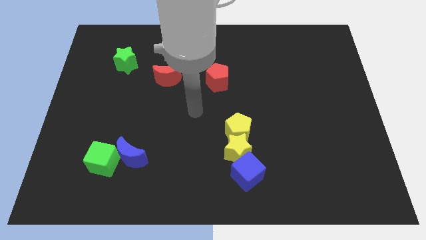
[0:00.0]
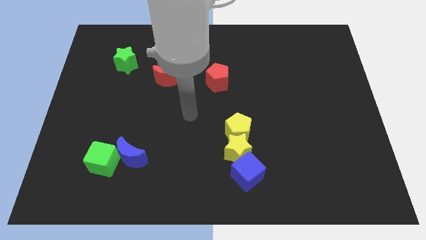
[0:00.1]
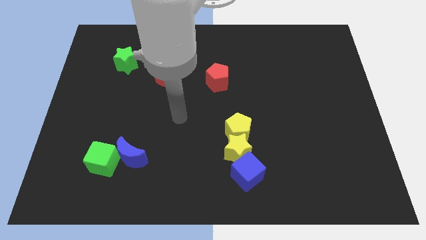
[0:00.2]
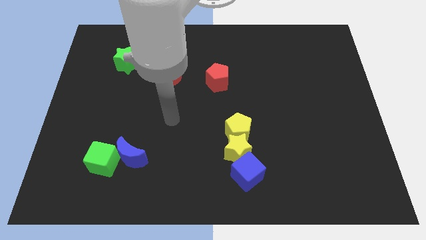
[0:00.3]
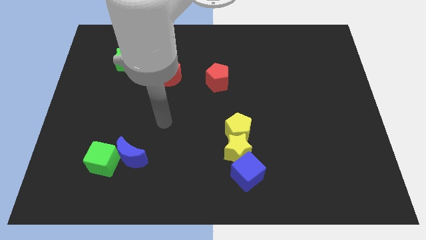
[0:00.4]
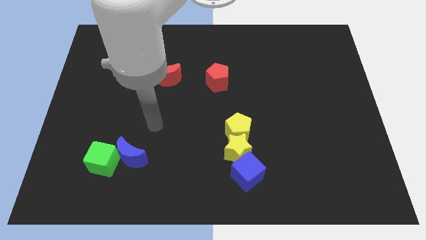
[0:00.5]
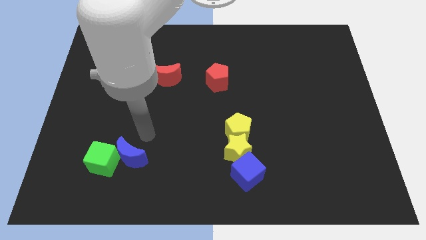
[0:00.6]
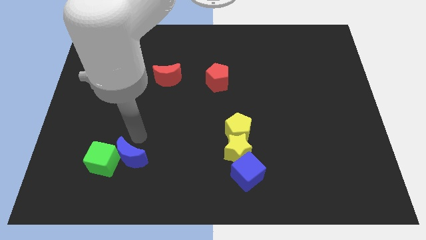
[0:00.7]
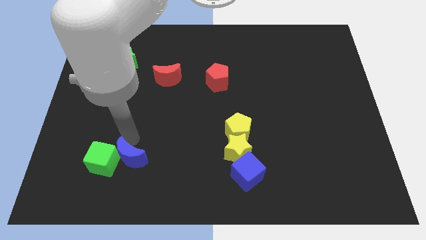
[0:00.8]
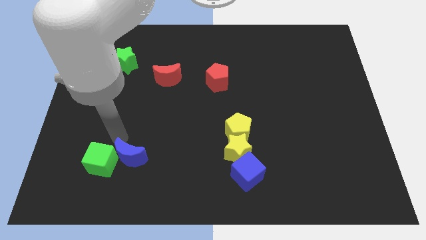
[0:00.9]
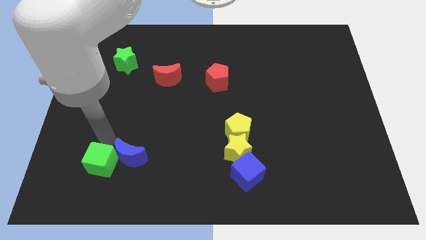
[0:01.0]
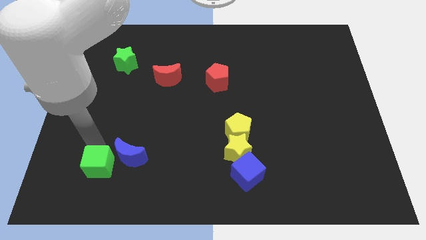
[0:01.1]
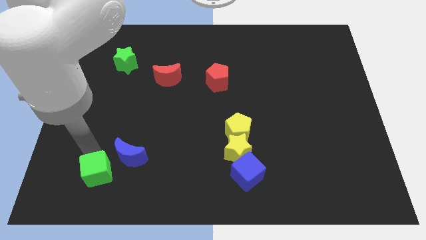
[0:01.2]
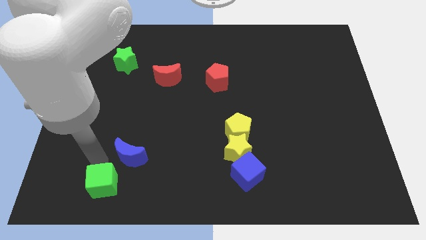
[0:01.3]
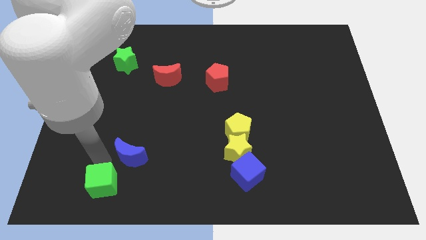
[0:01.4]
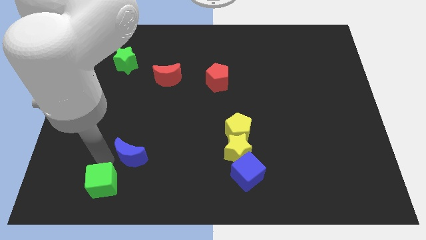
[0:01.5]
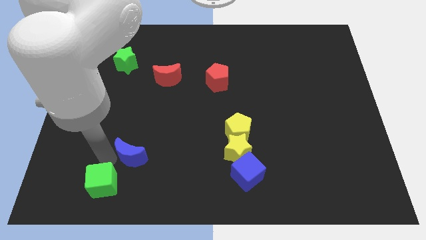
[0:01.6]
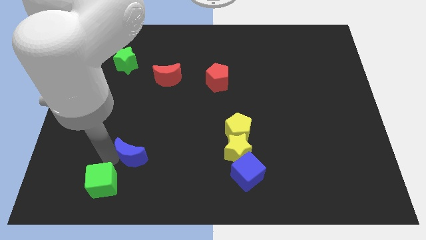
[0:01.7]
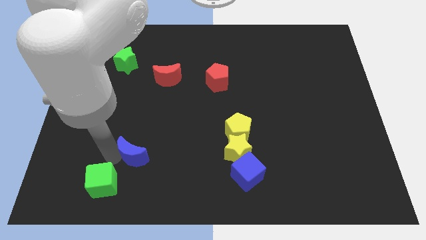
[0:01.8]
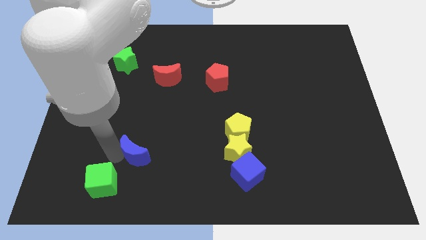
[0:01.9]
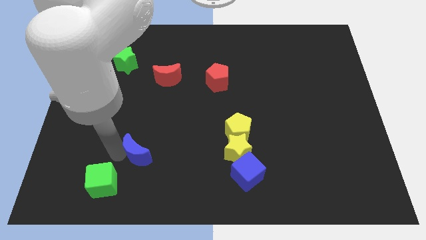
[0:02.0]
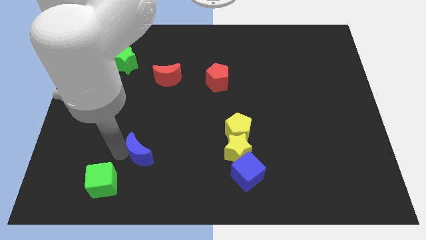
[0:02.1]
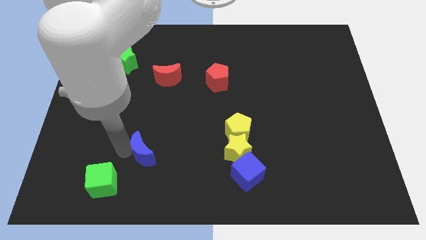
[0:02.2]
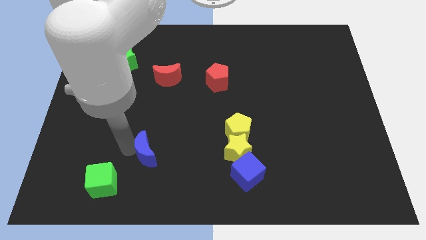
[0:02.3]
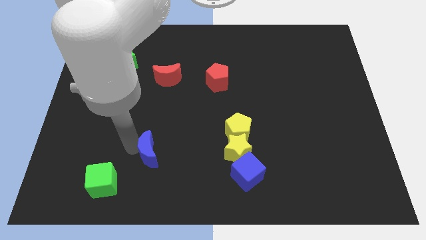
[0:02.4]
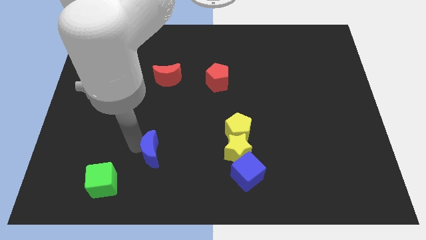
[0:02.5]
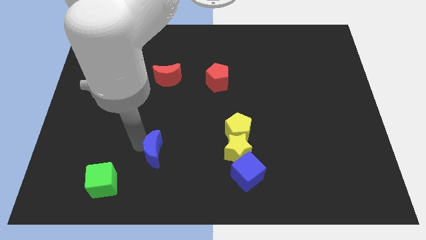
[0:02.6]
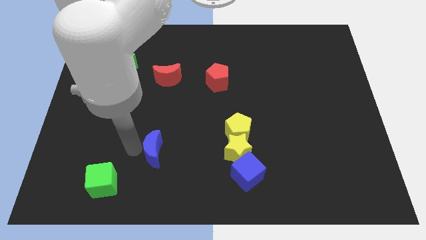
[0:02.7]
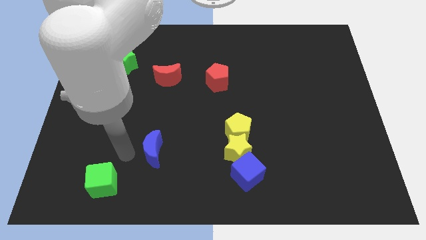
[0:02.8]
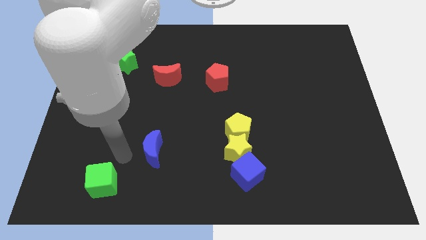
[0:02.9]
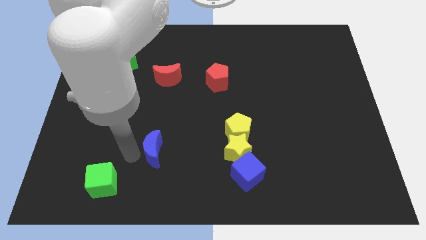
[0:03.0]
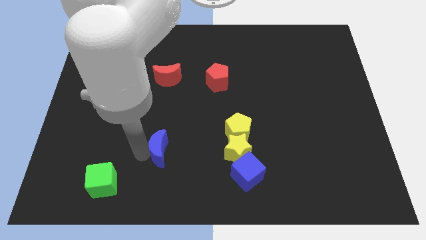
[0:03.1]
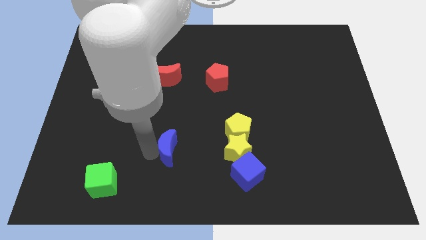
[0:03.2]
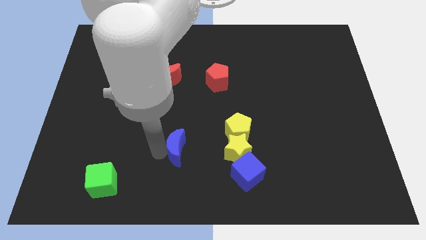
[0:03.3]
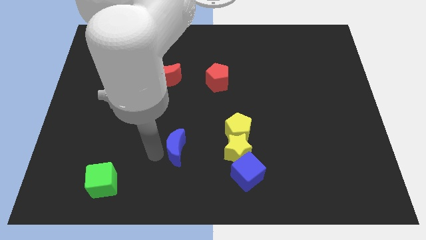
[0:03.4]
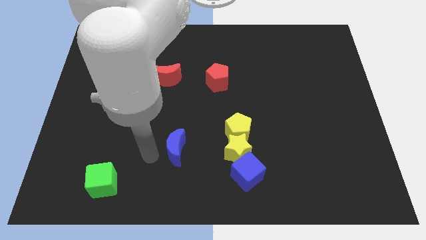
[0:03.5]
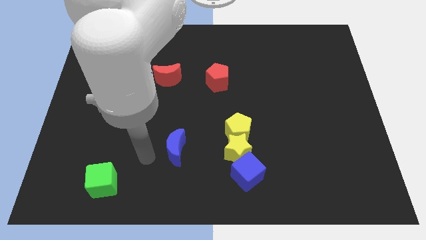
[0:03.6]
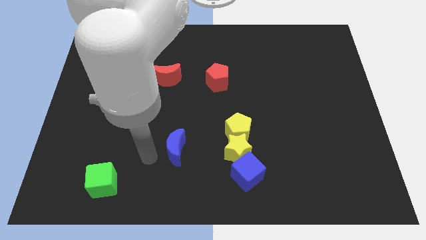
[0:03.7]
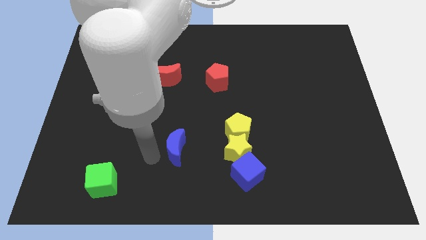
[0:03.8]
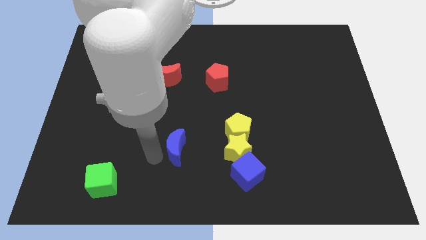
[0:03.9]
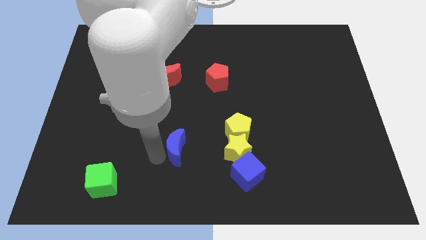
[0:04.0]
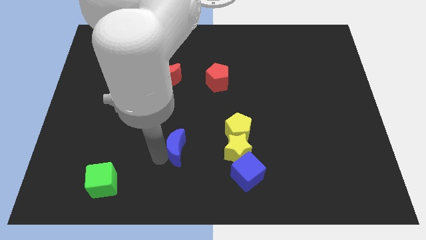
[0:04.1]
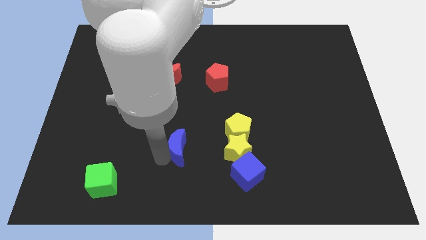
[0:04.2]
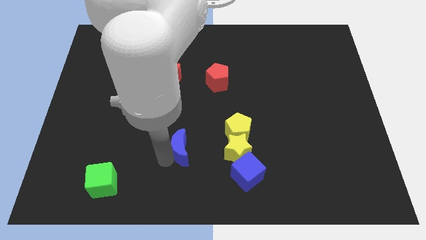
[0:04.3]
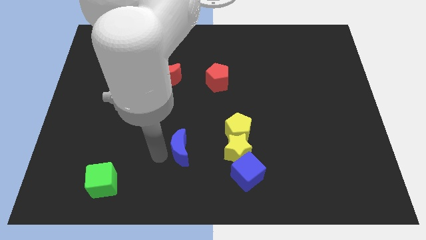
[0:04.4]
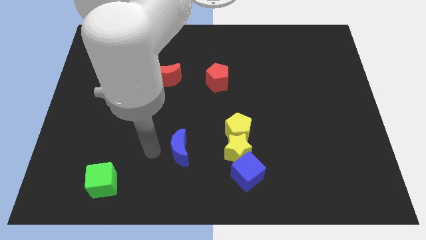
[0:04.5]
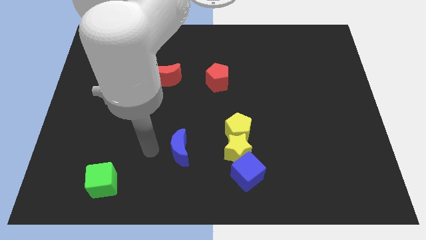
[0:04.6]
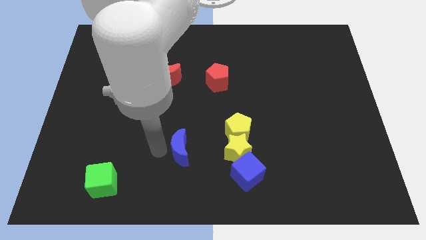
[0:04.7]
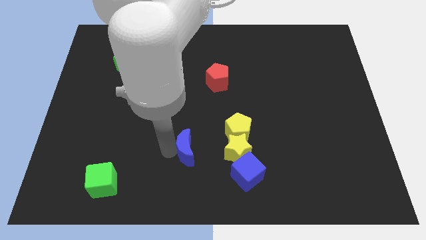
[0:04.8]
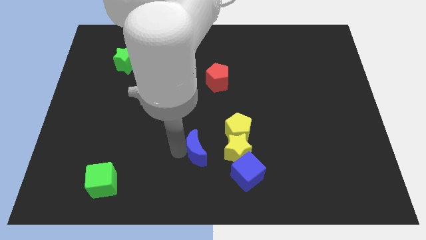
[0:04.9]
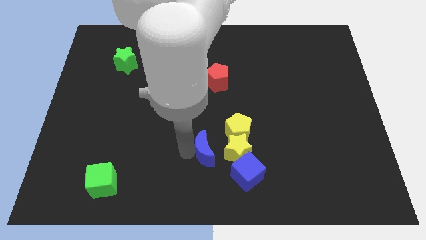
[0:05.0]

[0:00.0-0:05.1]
push the blue moon diagonally up and to the left of the blue cube

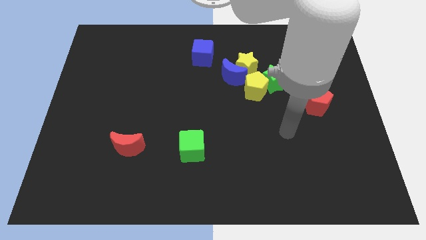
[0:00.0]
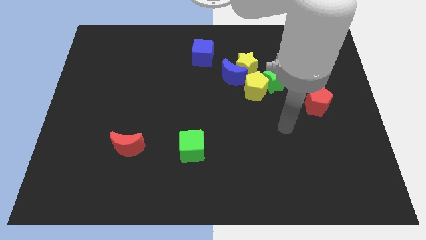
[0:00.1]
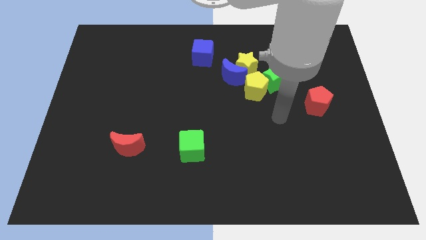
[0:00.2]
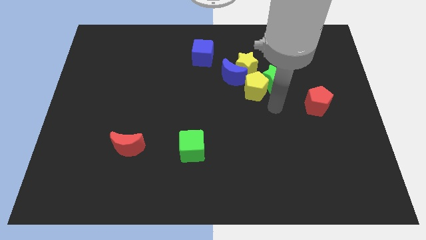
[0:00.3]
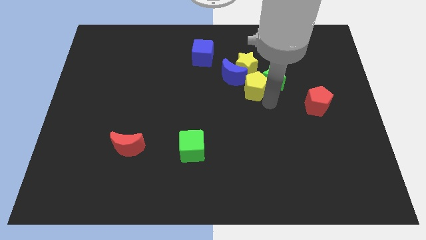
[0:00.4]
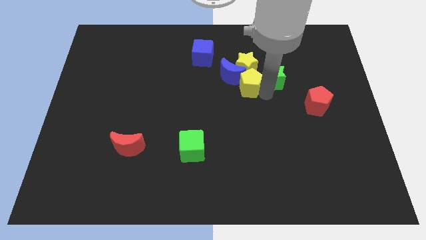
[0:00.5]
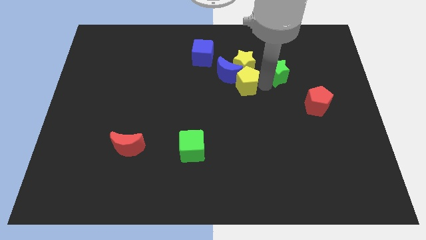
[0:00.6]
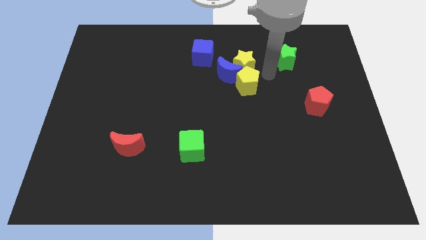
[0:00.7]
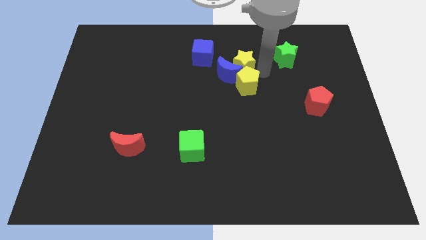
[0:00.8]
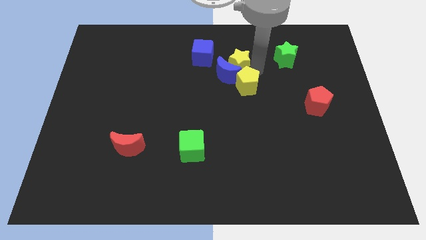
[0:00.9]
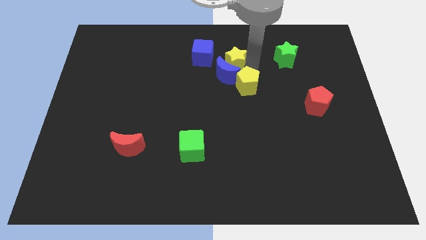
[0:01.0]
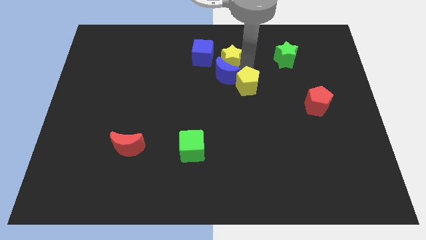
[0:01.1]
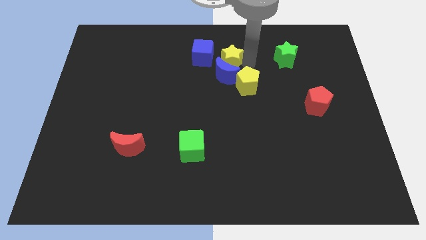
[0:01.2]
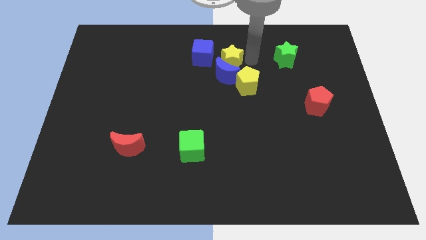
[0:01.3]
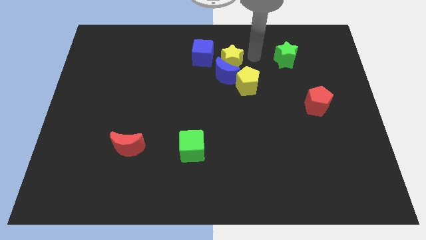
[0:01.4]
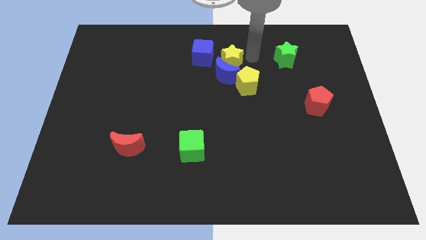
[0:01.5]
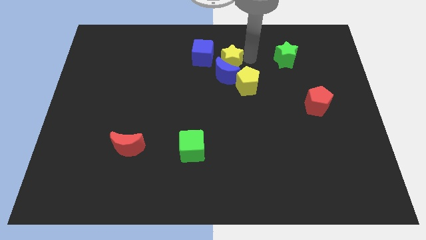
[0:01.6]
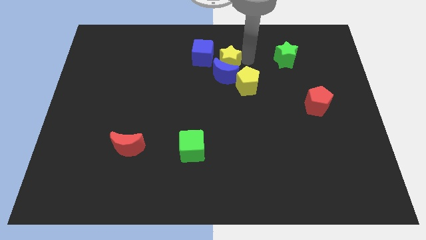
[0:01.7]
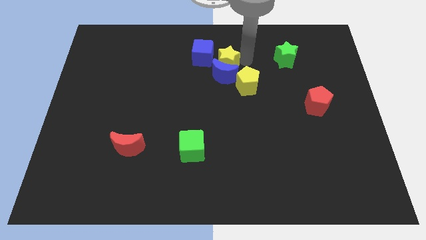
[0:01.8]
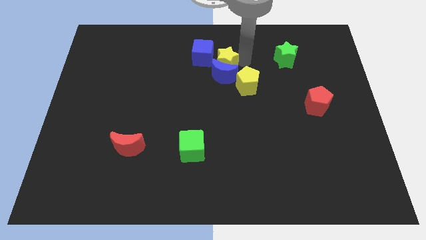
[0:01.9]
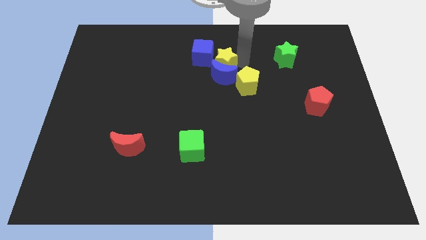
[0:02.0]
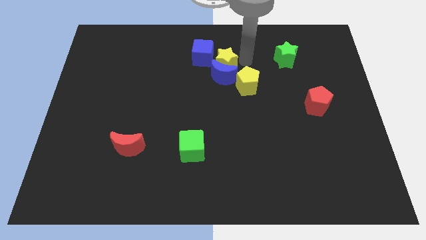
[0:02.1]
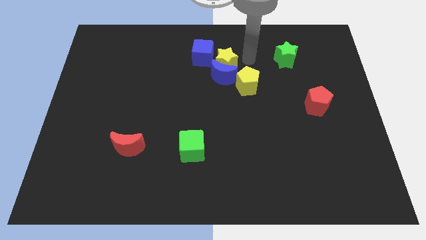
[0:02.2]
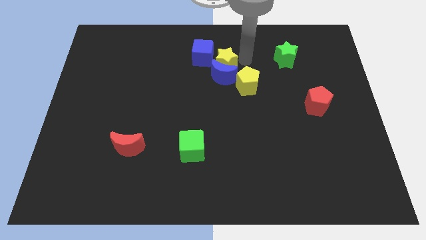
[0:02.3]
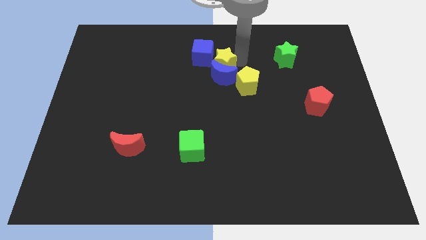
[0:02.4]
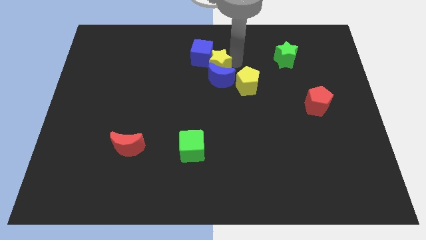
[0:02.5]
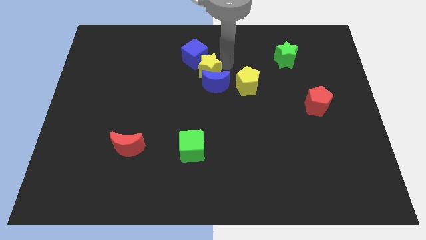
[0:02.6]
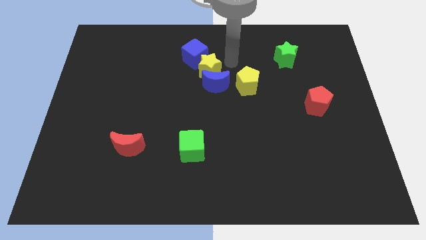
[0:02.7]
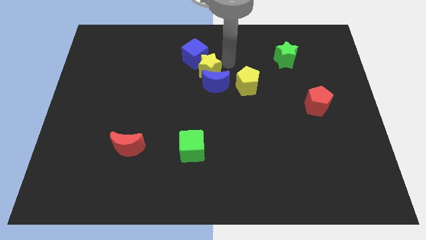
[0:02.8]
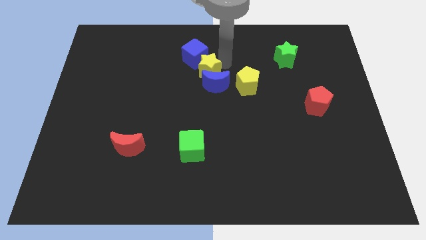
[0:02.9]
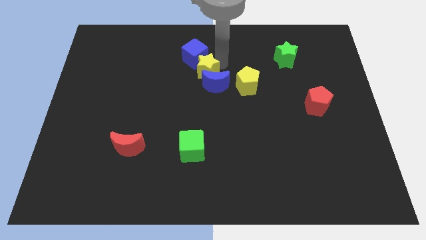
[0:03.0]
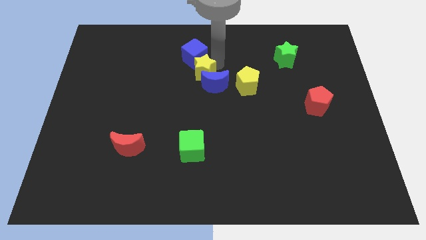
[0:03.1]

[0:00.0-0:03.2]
push the yellow star to the left of the blue moon
